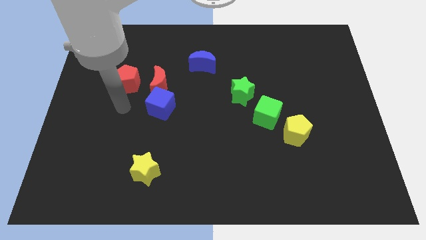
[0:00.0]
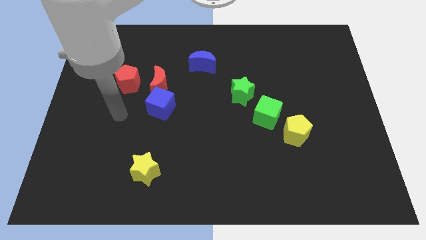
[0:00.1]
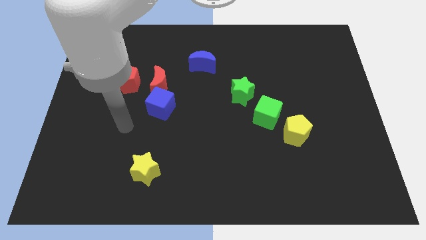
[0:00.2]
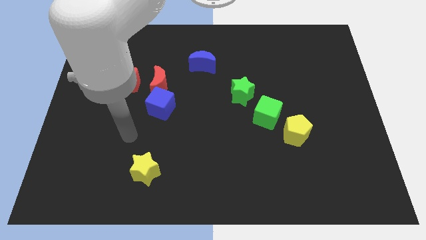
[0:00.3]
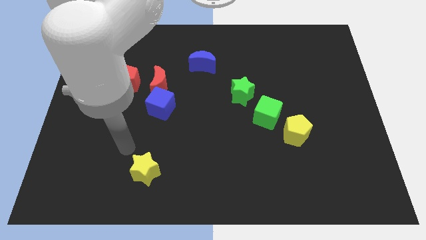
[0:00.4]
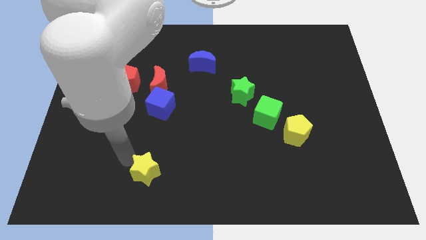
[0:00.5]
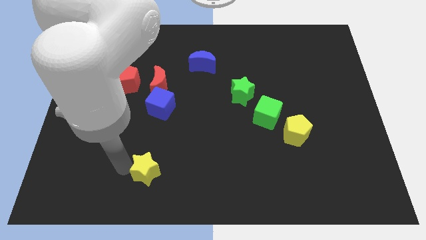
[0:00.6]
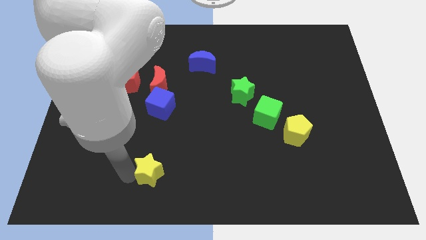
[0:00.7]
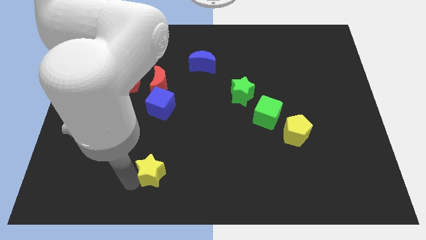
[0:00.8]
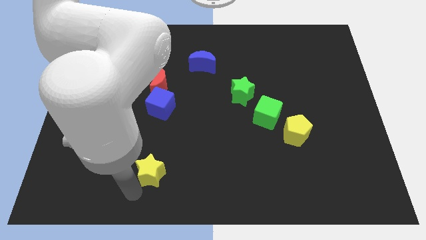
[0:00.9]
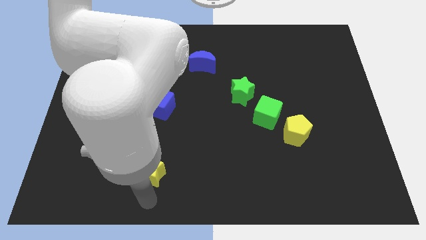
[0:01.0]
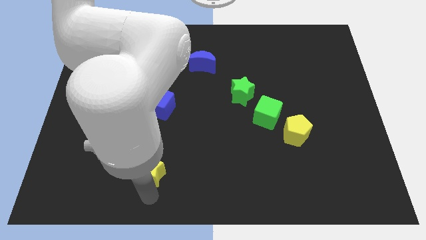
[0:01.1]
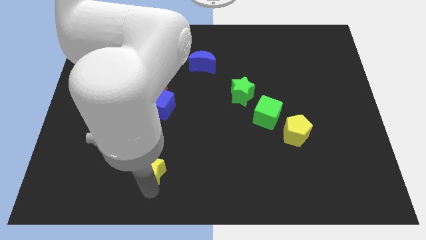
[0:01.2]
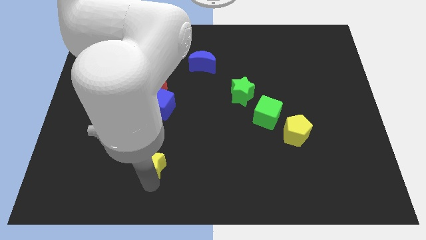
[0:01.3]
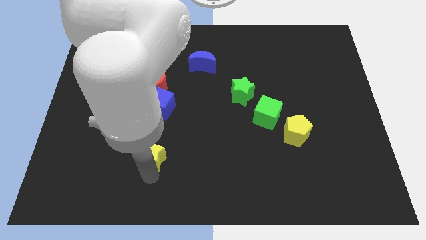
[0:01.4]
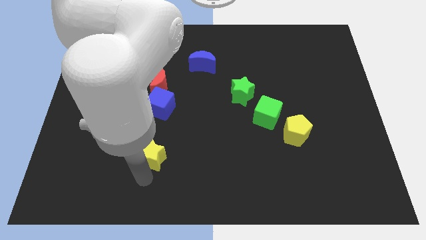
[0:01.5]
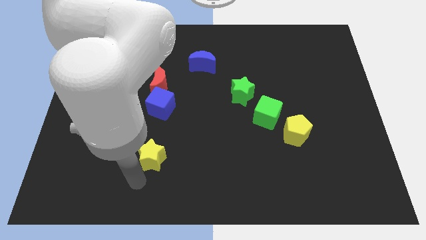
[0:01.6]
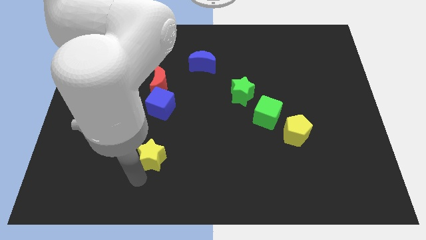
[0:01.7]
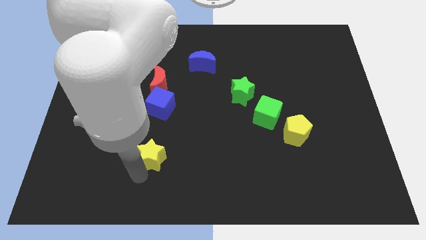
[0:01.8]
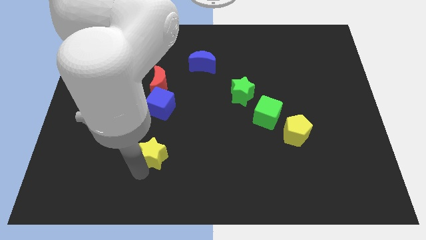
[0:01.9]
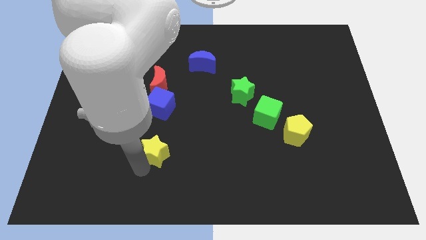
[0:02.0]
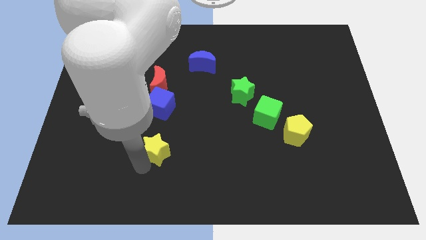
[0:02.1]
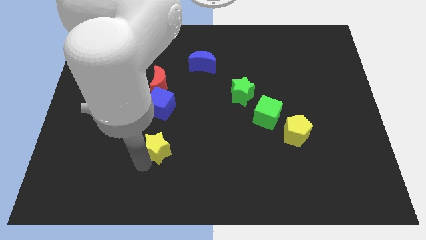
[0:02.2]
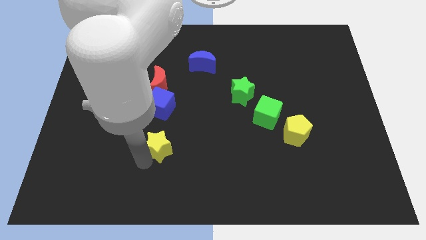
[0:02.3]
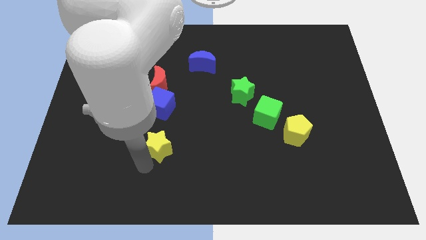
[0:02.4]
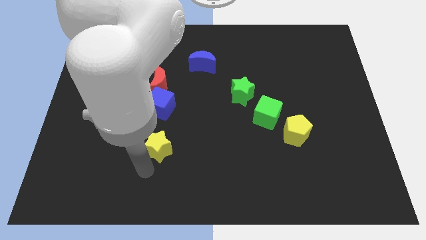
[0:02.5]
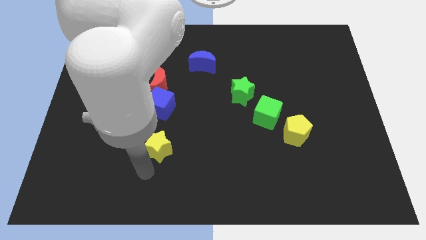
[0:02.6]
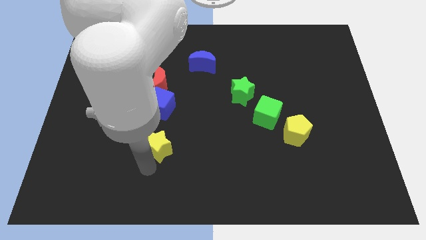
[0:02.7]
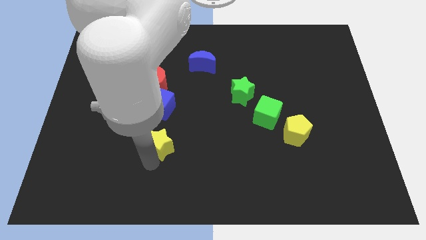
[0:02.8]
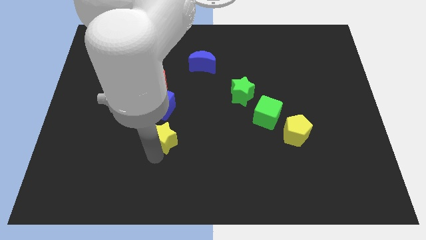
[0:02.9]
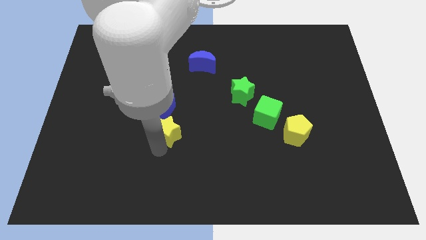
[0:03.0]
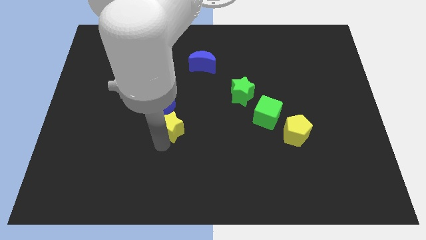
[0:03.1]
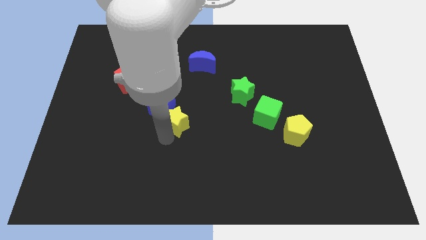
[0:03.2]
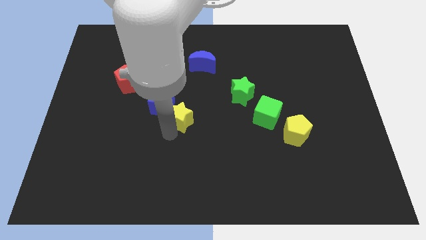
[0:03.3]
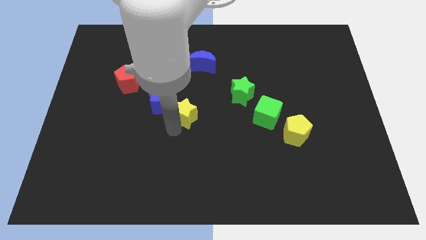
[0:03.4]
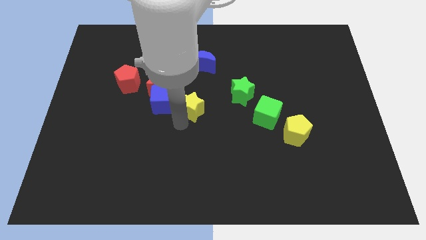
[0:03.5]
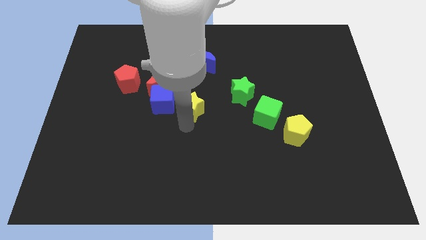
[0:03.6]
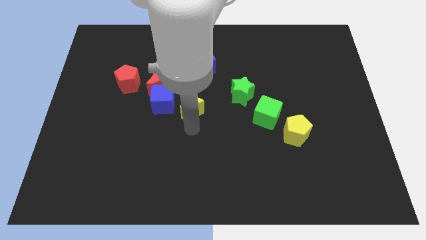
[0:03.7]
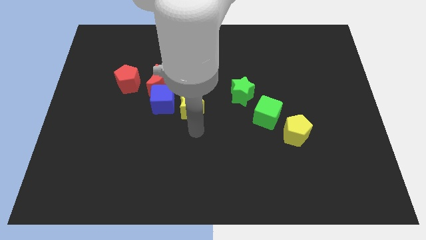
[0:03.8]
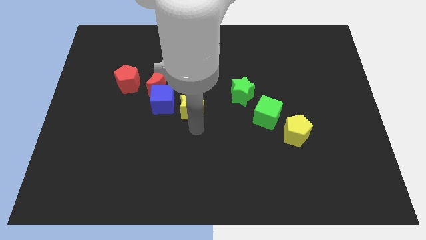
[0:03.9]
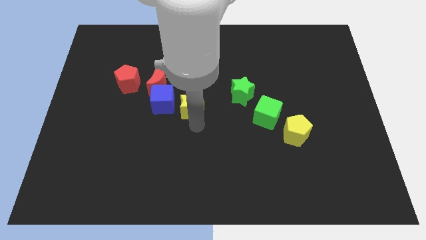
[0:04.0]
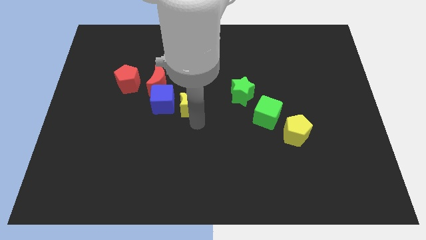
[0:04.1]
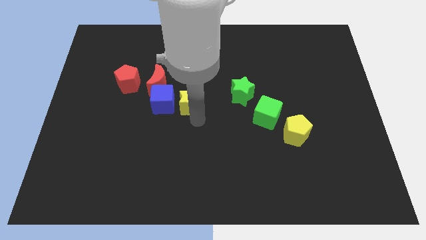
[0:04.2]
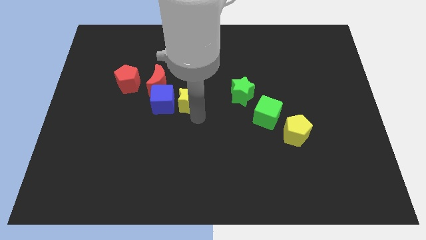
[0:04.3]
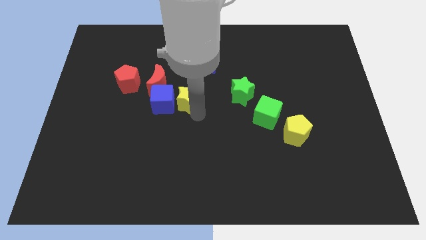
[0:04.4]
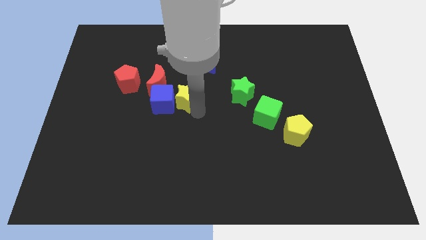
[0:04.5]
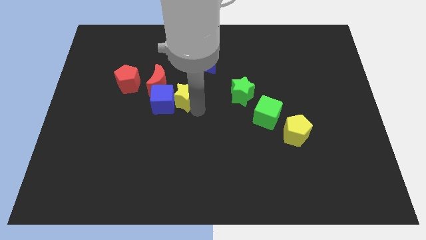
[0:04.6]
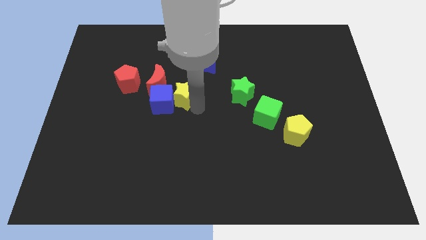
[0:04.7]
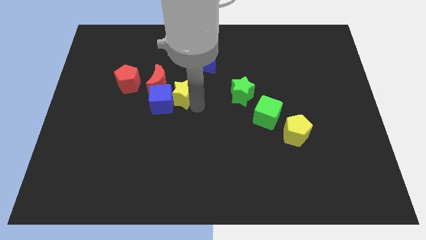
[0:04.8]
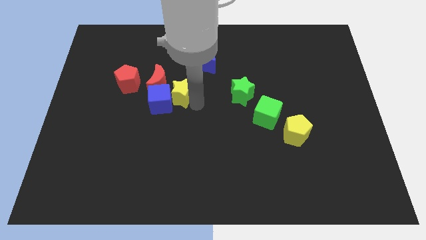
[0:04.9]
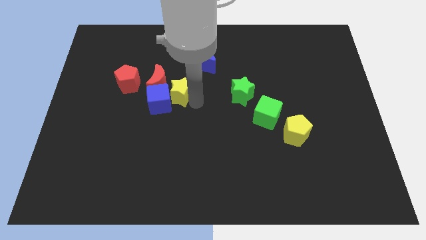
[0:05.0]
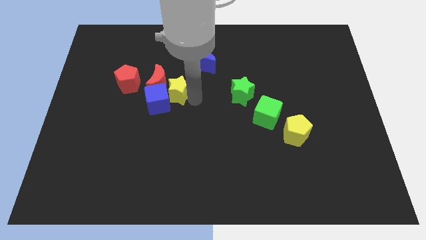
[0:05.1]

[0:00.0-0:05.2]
push the yellow star up

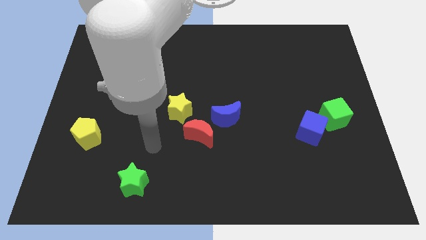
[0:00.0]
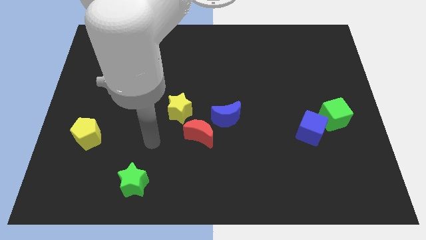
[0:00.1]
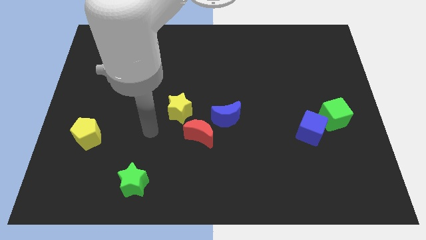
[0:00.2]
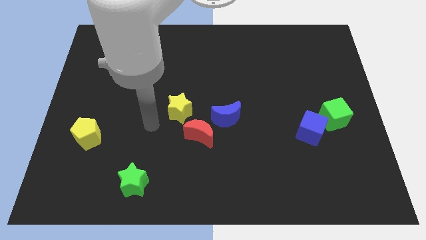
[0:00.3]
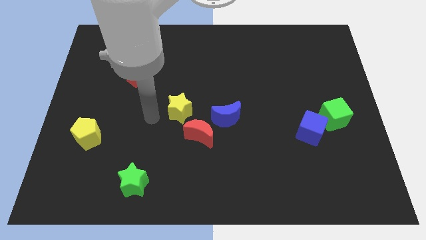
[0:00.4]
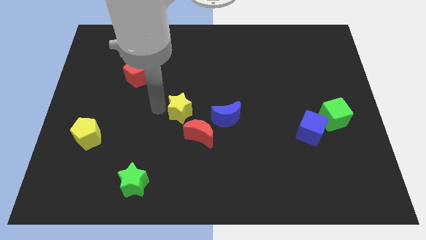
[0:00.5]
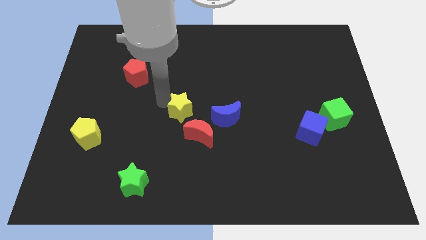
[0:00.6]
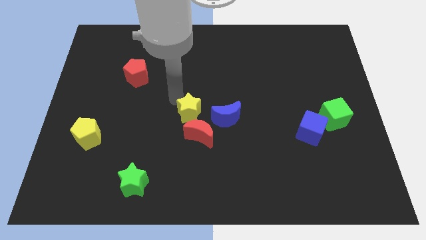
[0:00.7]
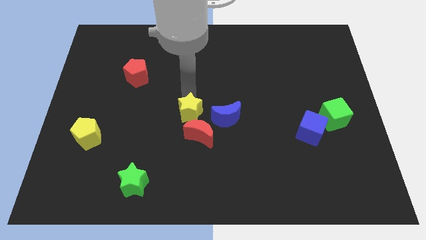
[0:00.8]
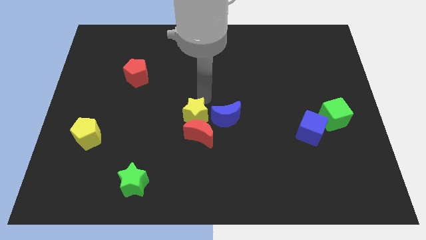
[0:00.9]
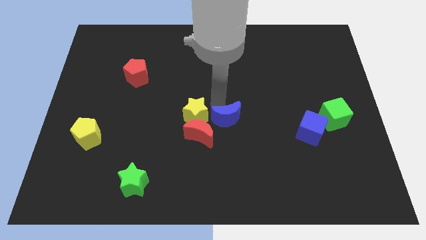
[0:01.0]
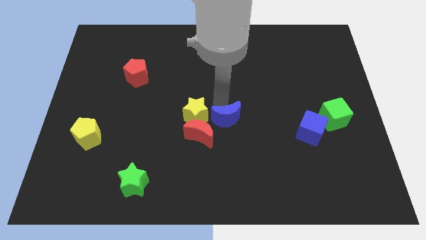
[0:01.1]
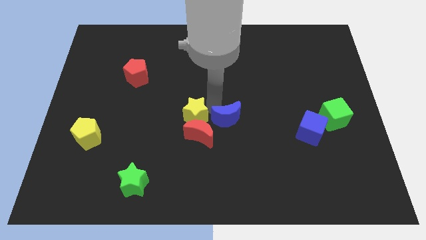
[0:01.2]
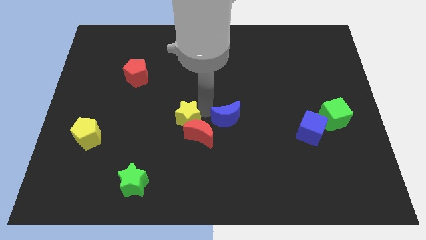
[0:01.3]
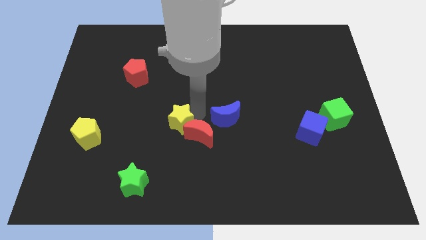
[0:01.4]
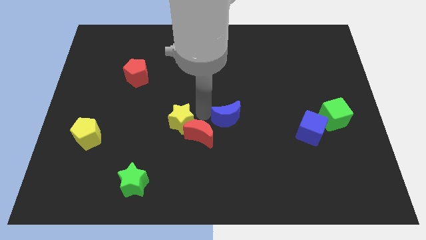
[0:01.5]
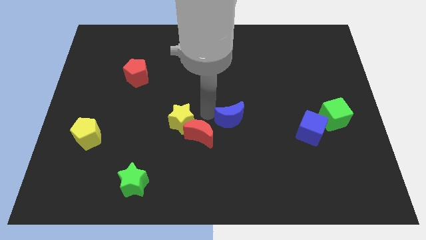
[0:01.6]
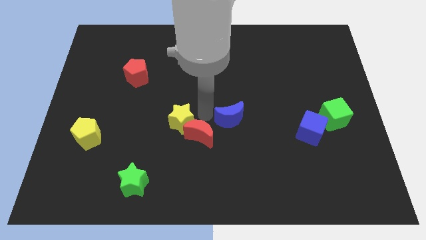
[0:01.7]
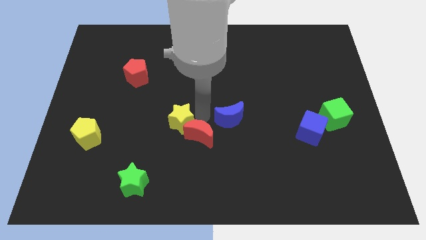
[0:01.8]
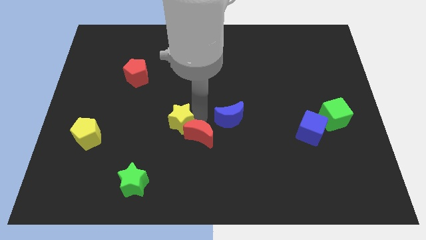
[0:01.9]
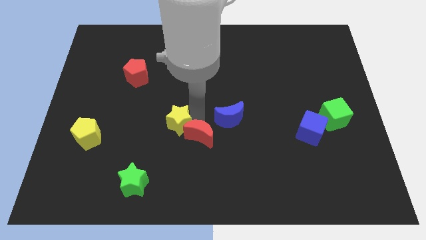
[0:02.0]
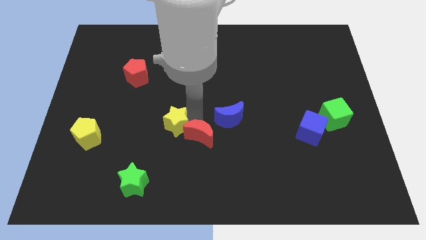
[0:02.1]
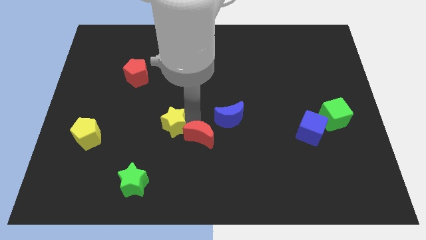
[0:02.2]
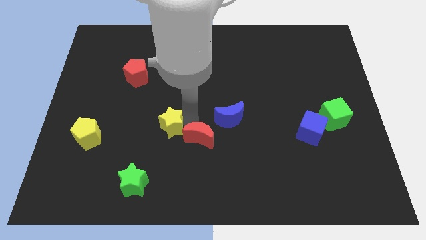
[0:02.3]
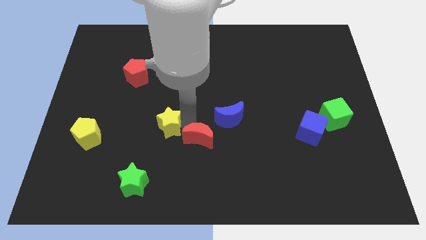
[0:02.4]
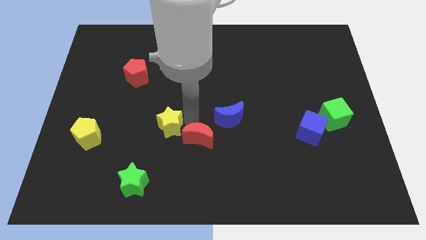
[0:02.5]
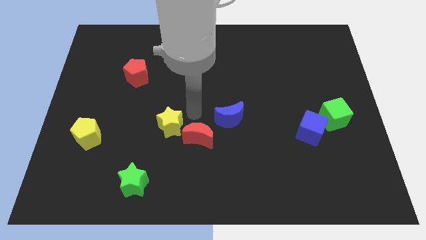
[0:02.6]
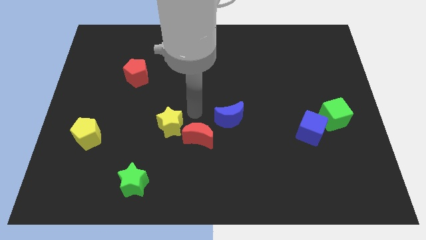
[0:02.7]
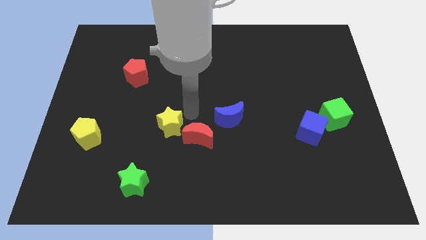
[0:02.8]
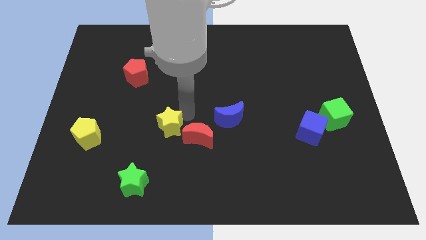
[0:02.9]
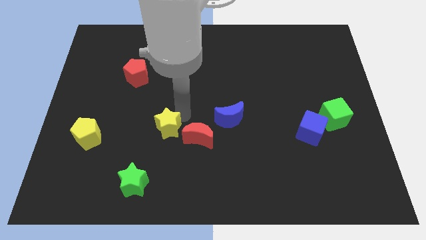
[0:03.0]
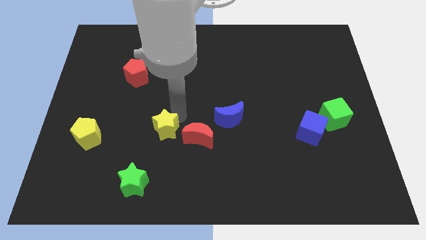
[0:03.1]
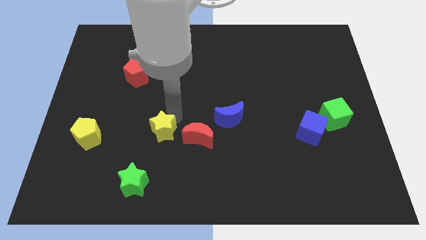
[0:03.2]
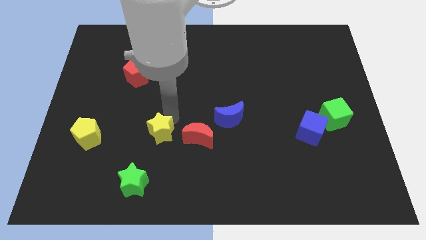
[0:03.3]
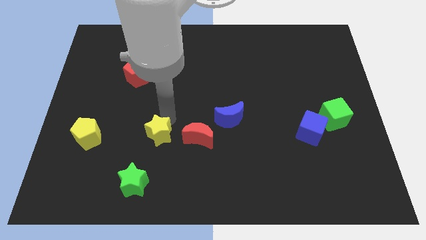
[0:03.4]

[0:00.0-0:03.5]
move the yellow star a bit diagonally downwards and left
